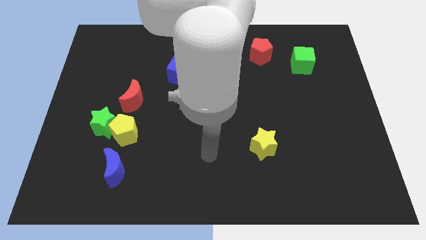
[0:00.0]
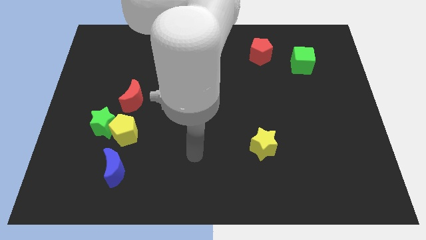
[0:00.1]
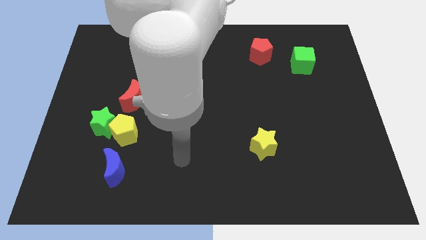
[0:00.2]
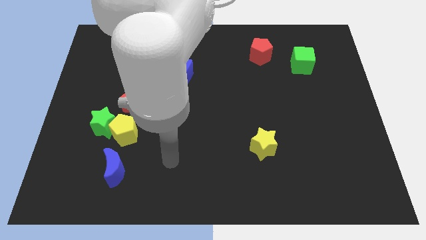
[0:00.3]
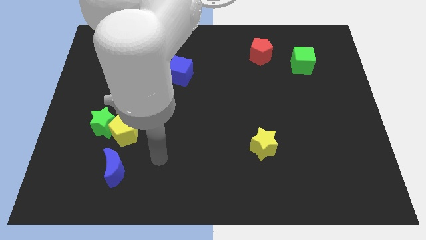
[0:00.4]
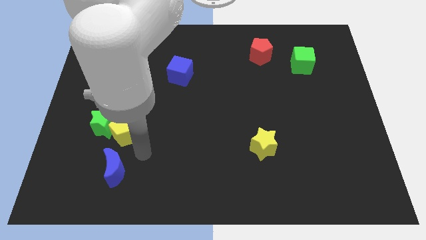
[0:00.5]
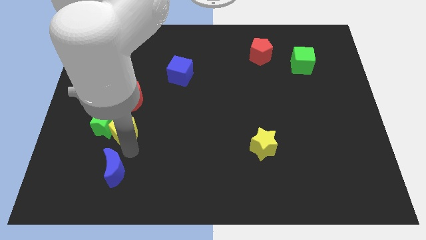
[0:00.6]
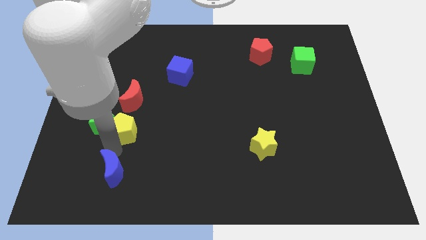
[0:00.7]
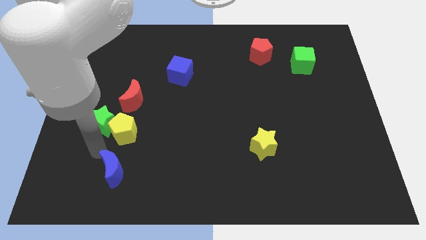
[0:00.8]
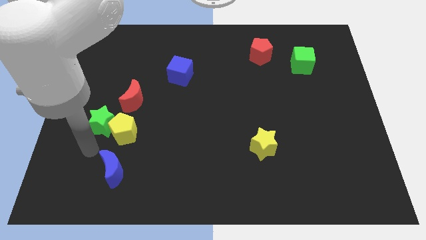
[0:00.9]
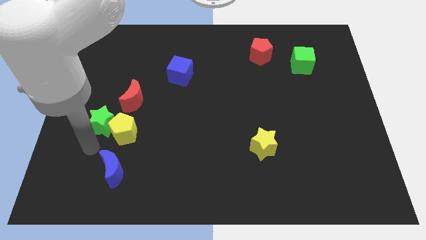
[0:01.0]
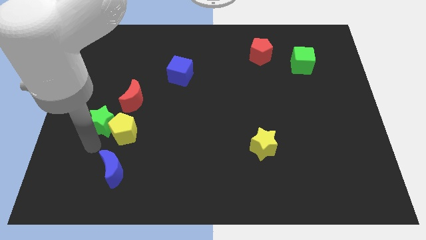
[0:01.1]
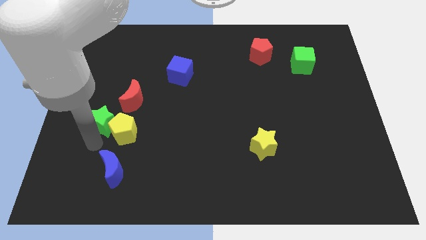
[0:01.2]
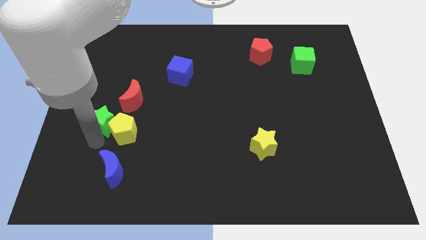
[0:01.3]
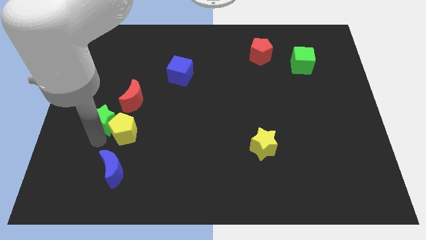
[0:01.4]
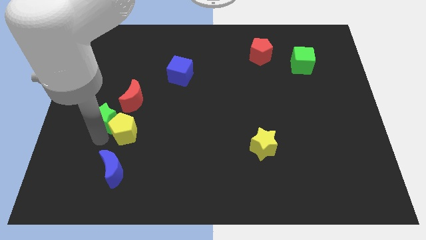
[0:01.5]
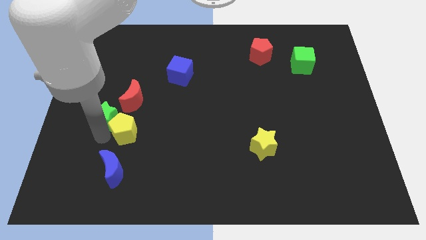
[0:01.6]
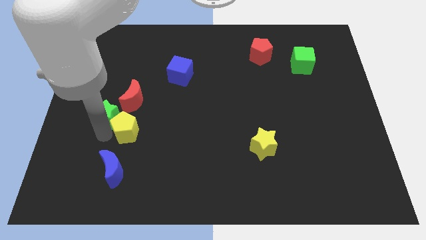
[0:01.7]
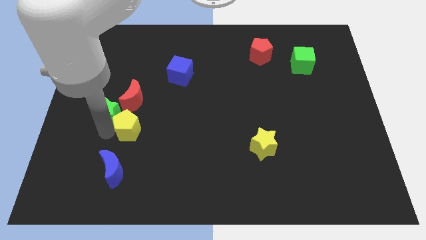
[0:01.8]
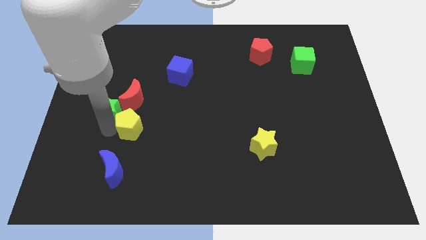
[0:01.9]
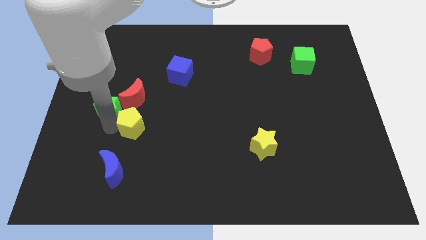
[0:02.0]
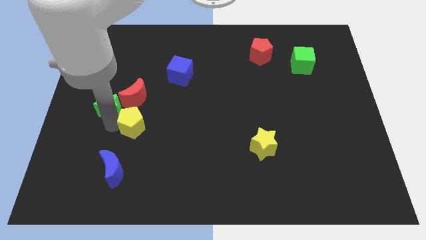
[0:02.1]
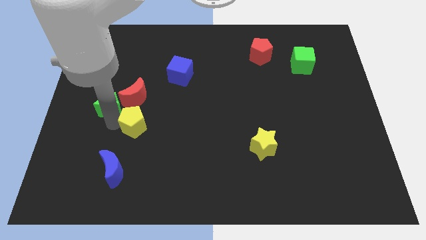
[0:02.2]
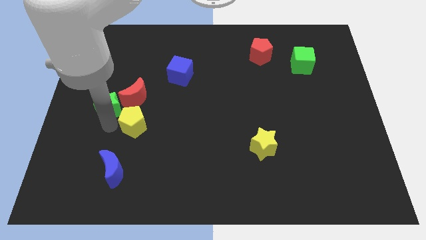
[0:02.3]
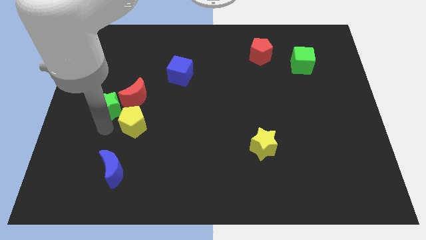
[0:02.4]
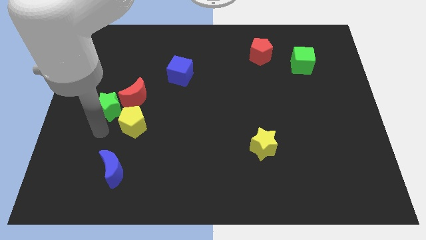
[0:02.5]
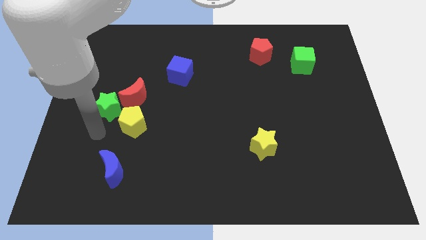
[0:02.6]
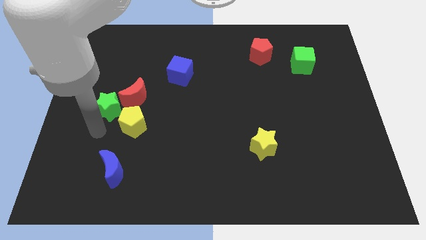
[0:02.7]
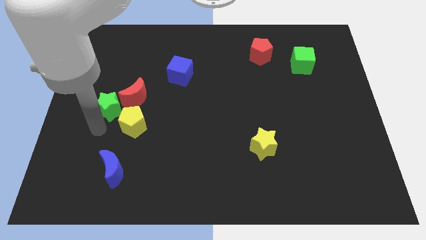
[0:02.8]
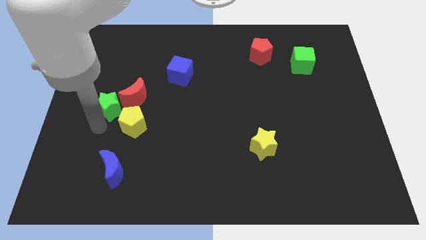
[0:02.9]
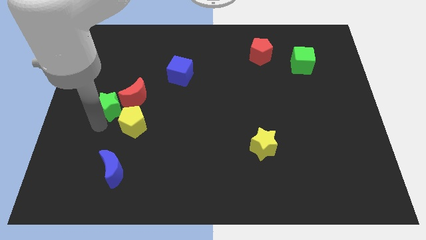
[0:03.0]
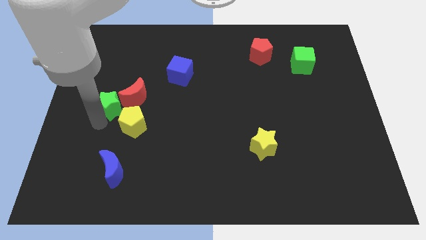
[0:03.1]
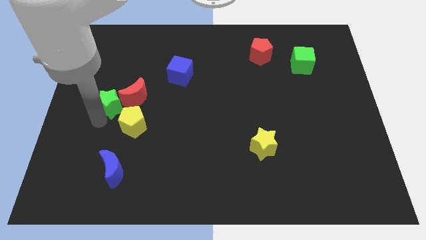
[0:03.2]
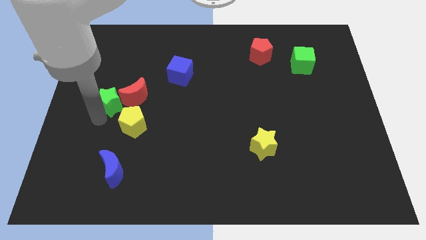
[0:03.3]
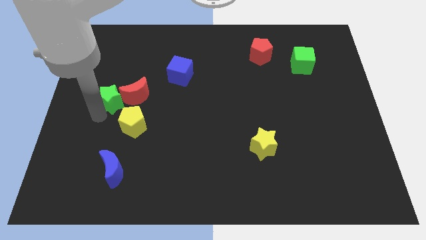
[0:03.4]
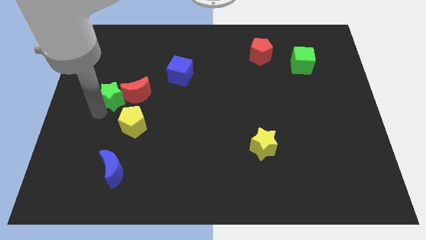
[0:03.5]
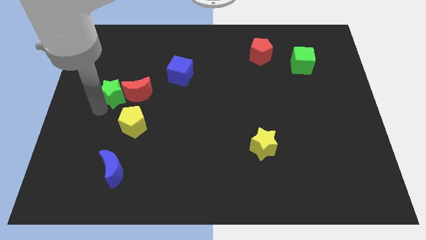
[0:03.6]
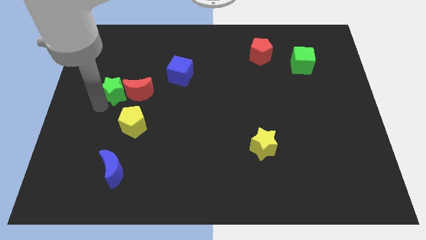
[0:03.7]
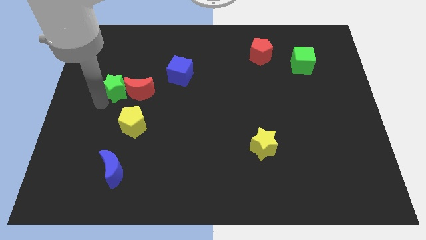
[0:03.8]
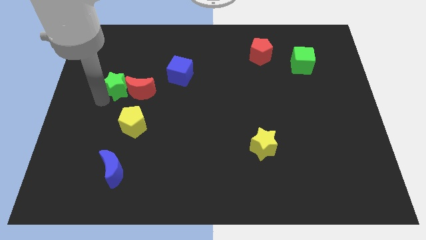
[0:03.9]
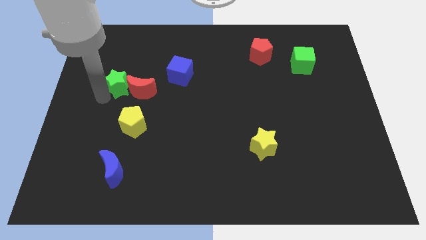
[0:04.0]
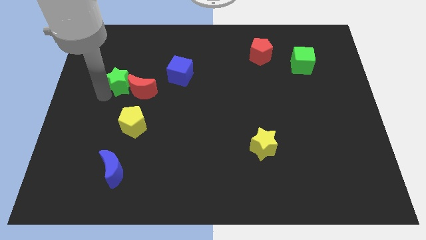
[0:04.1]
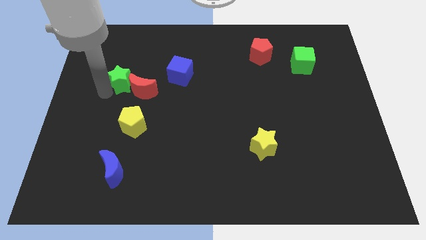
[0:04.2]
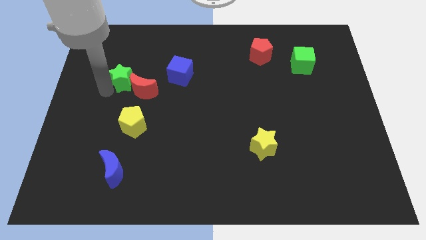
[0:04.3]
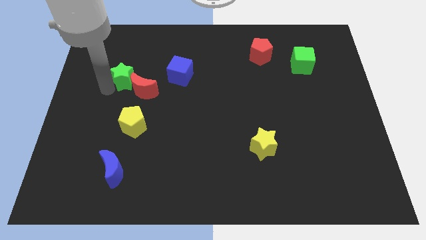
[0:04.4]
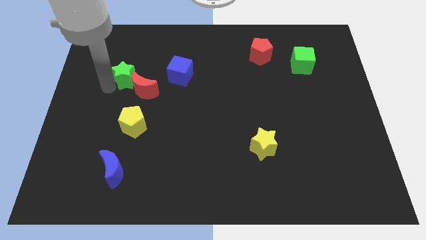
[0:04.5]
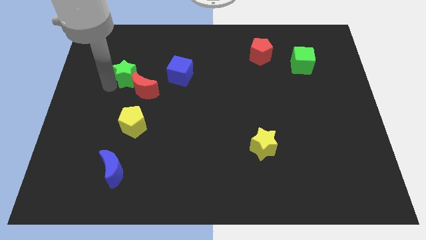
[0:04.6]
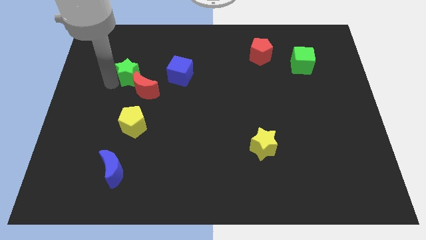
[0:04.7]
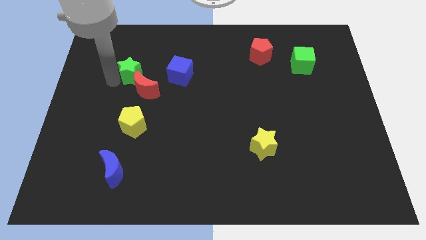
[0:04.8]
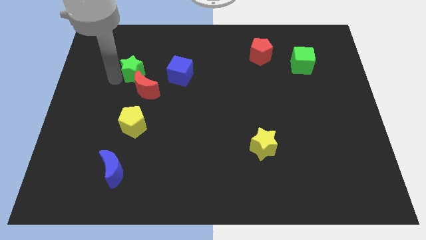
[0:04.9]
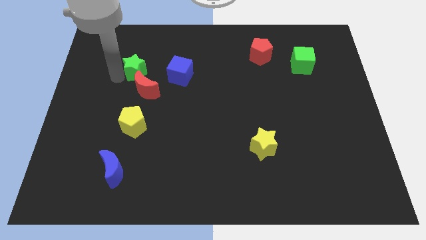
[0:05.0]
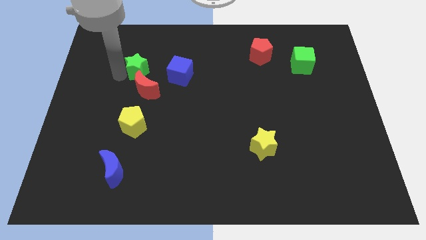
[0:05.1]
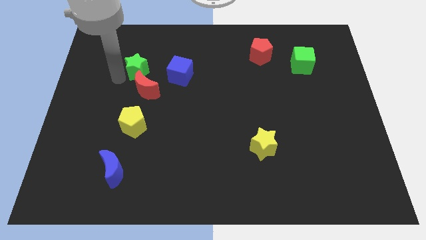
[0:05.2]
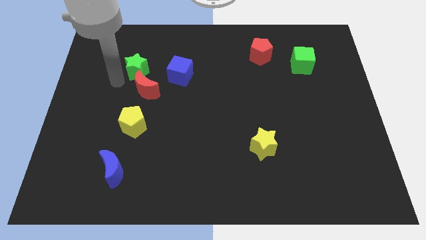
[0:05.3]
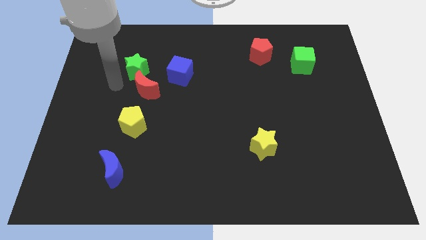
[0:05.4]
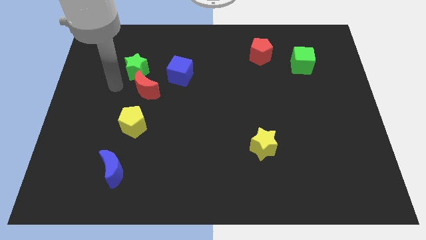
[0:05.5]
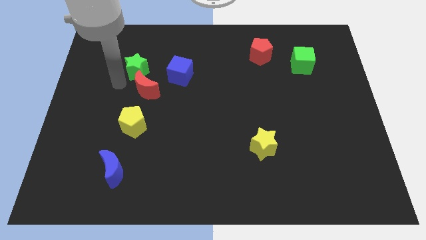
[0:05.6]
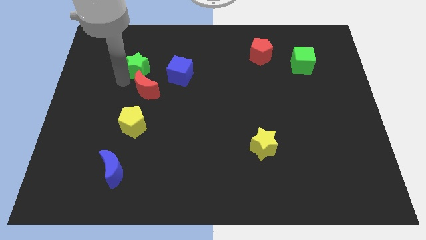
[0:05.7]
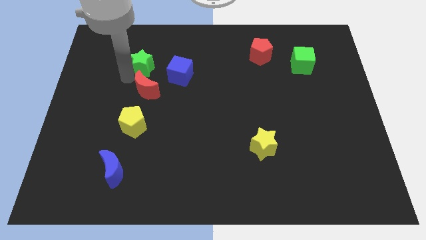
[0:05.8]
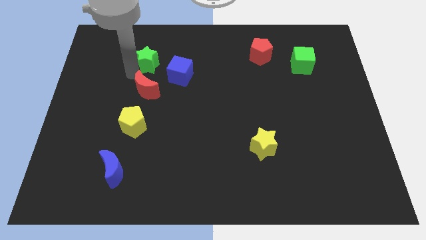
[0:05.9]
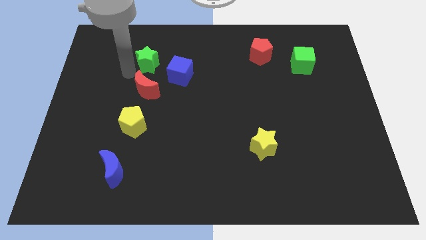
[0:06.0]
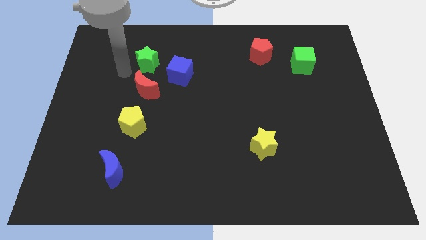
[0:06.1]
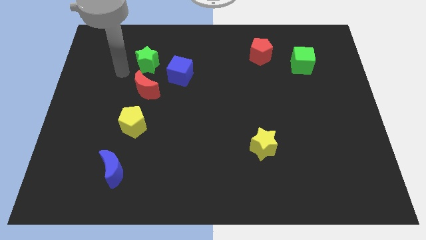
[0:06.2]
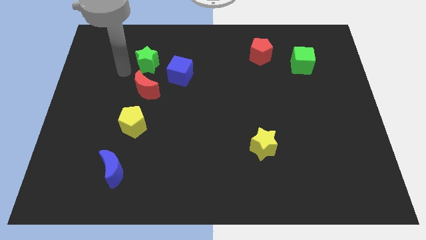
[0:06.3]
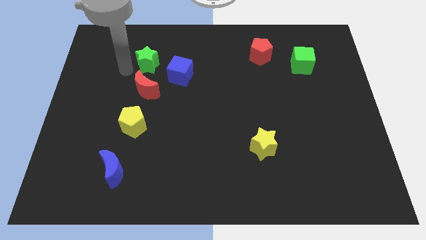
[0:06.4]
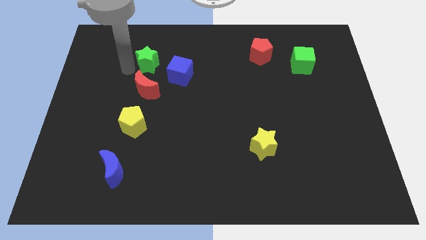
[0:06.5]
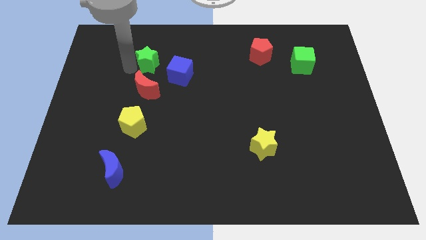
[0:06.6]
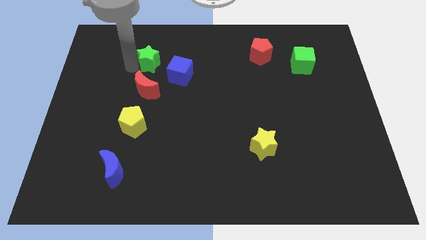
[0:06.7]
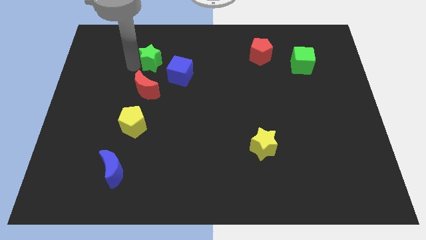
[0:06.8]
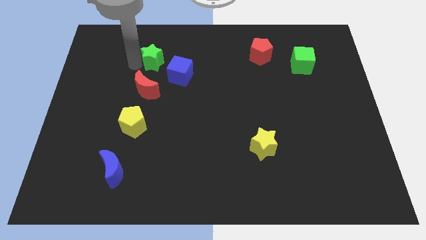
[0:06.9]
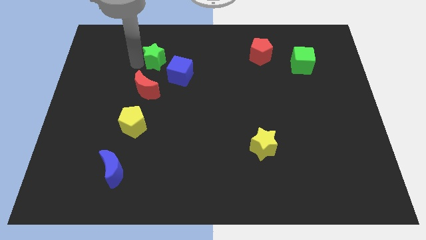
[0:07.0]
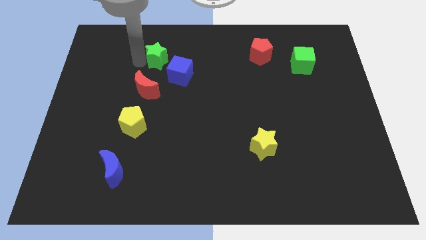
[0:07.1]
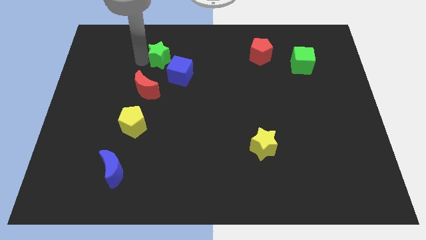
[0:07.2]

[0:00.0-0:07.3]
push the green star upwards and then right

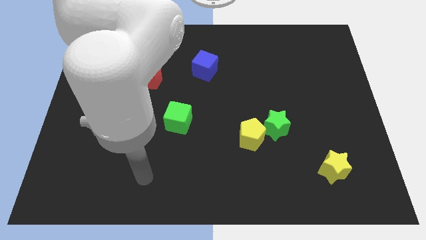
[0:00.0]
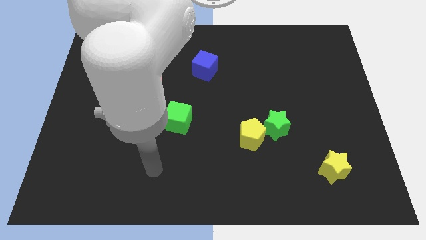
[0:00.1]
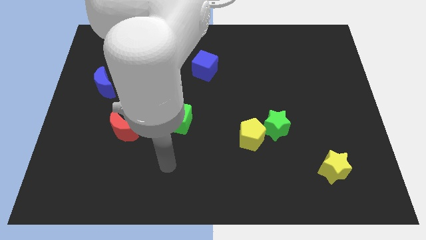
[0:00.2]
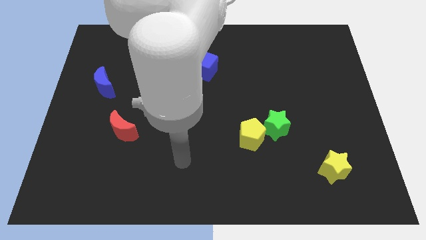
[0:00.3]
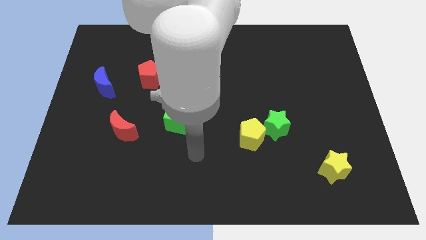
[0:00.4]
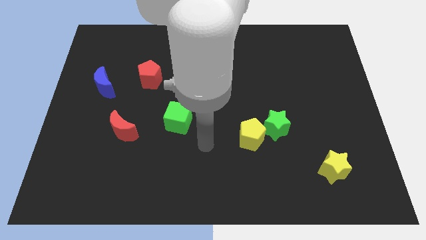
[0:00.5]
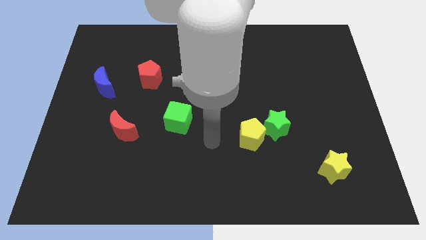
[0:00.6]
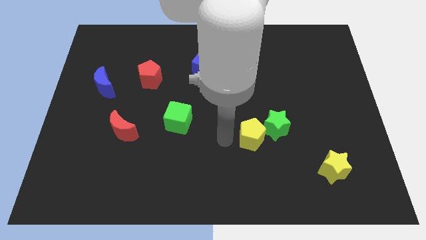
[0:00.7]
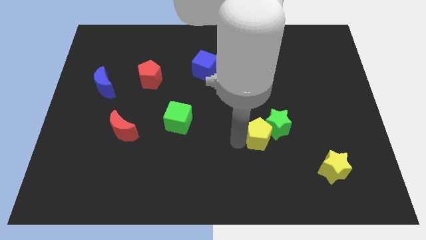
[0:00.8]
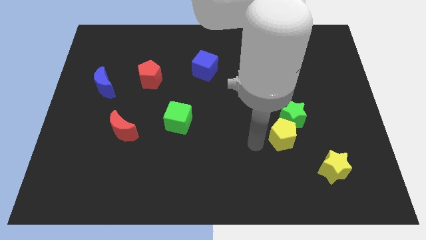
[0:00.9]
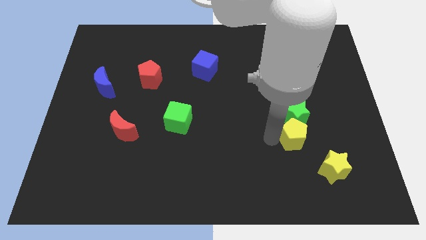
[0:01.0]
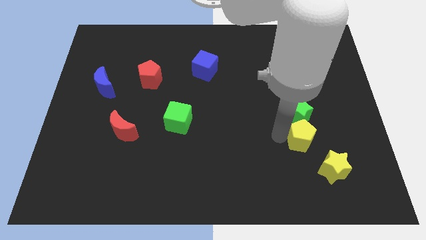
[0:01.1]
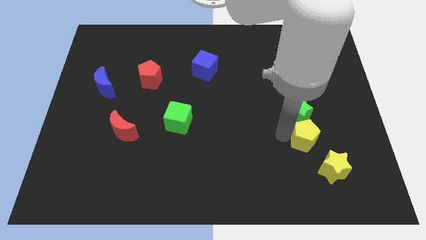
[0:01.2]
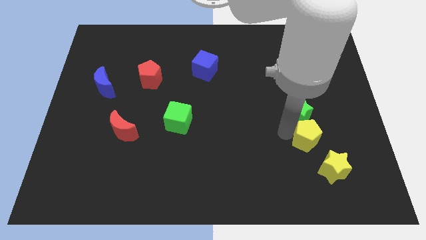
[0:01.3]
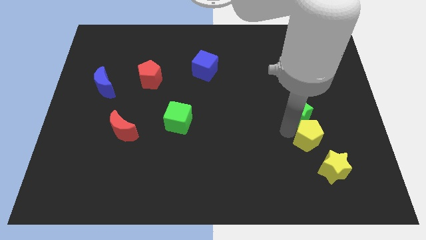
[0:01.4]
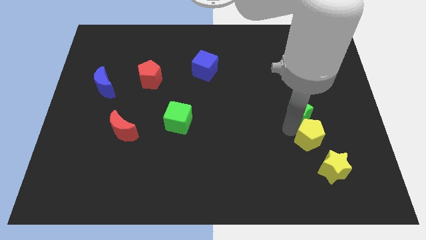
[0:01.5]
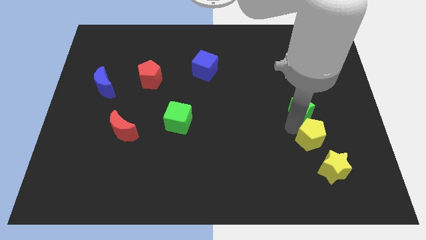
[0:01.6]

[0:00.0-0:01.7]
move the green star somewhat up and to the right diagonally
